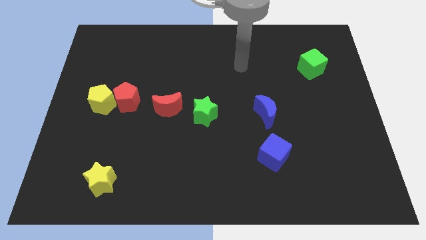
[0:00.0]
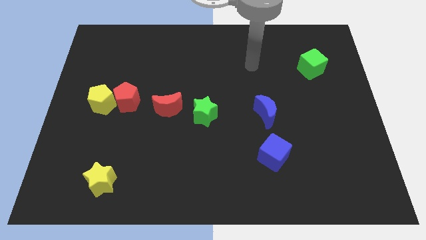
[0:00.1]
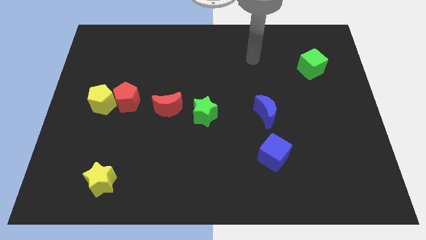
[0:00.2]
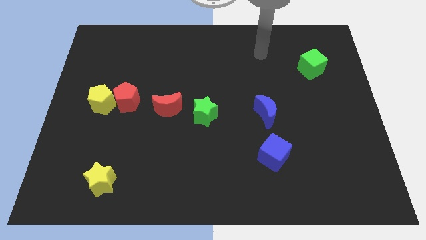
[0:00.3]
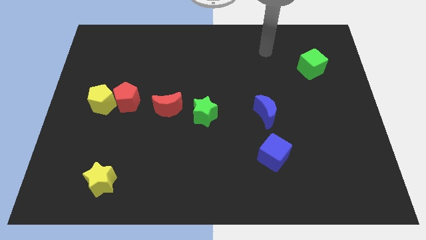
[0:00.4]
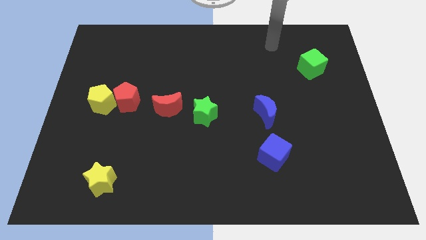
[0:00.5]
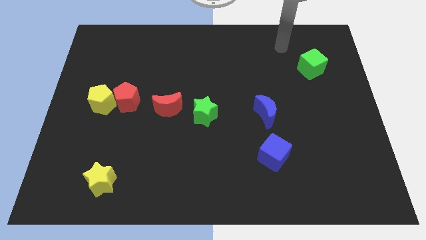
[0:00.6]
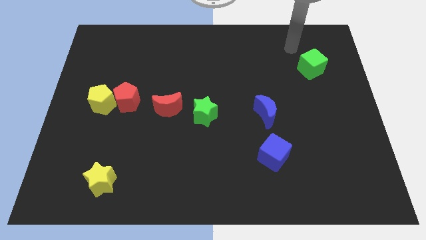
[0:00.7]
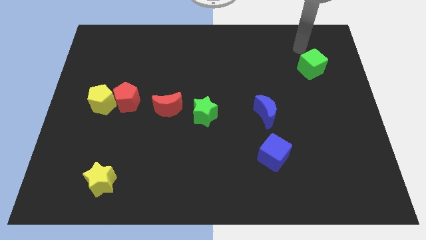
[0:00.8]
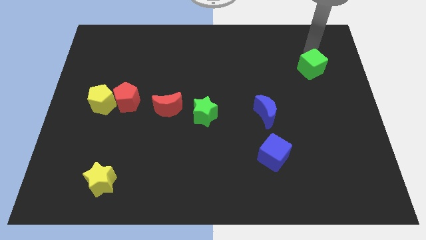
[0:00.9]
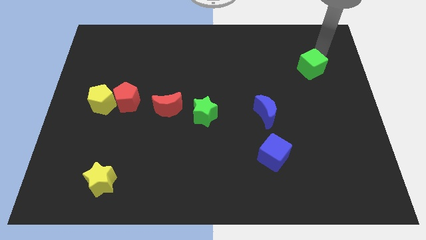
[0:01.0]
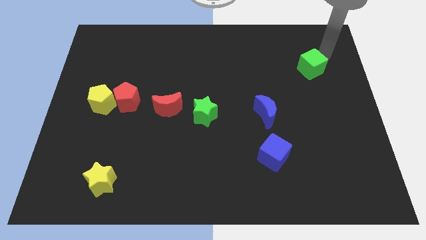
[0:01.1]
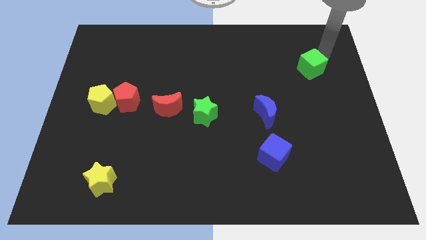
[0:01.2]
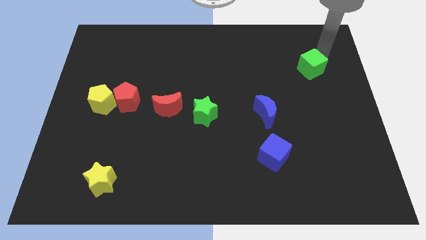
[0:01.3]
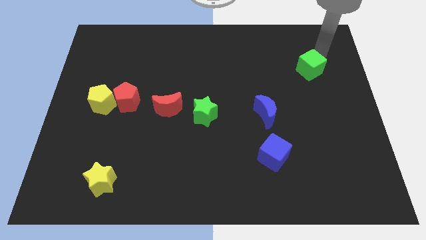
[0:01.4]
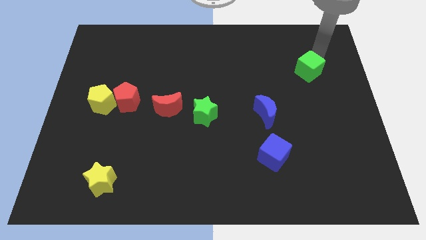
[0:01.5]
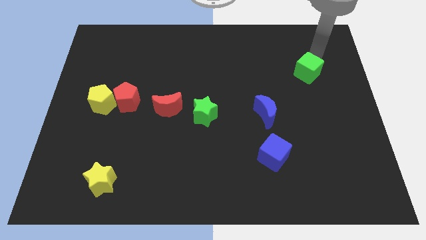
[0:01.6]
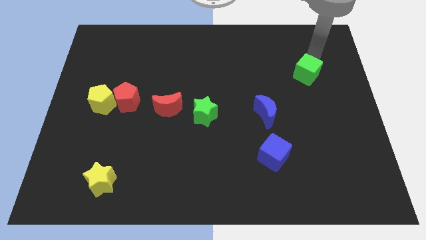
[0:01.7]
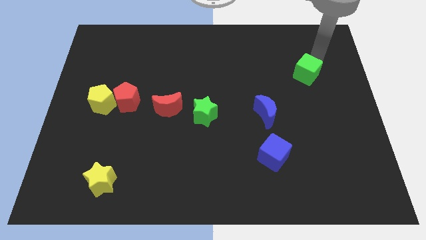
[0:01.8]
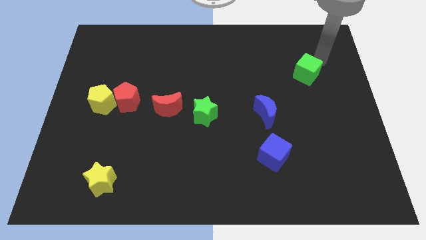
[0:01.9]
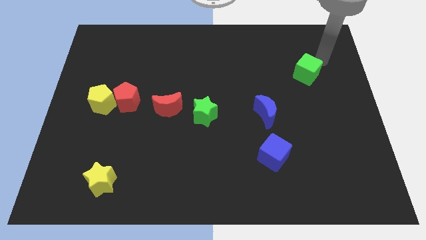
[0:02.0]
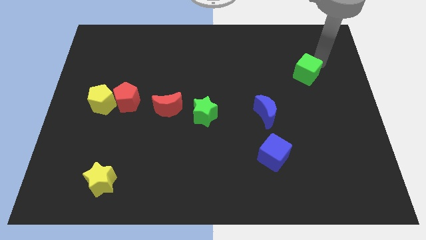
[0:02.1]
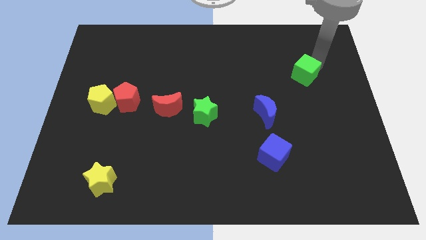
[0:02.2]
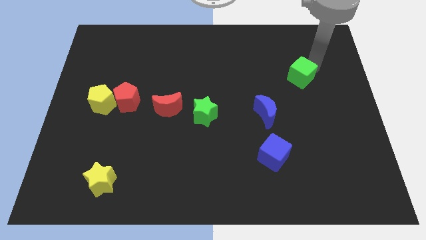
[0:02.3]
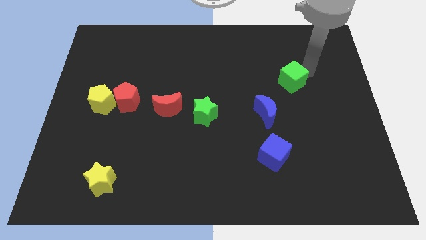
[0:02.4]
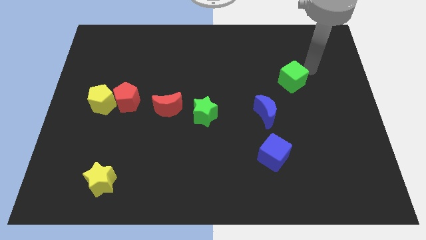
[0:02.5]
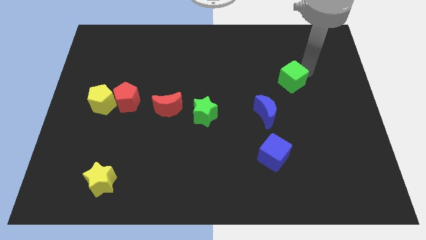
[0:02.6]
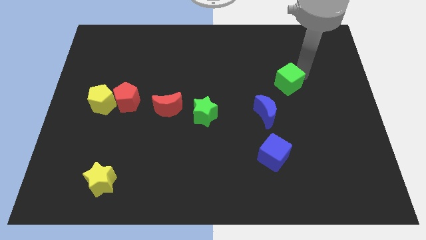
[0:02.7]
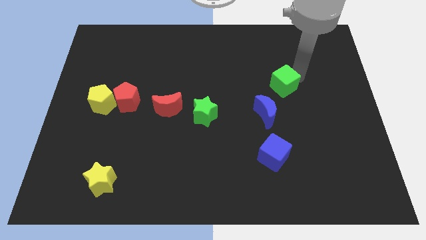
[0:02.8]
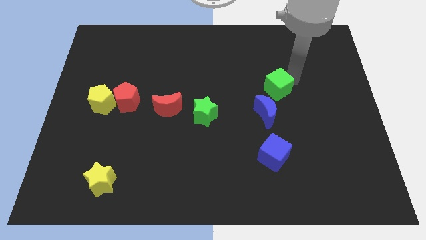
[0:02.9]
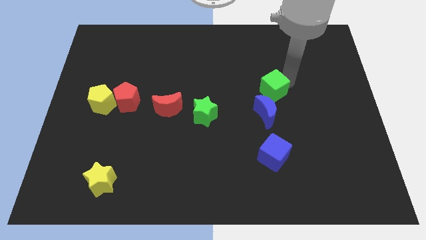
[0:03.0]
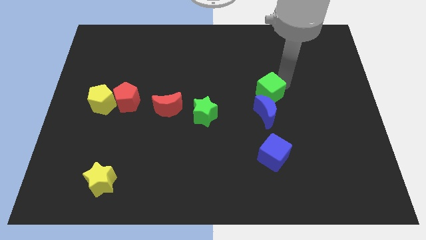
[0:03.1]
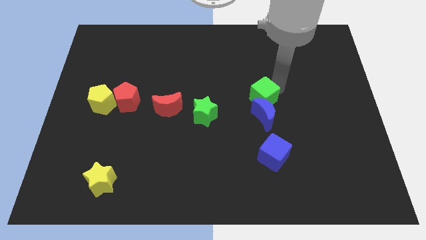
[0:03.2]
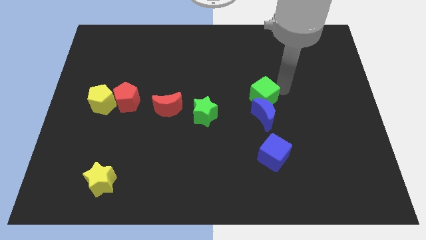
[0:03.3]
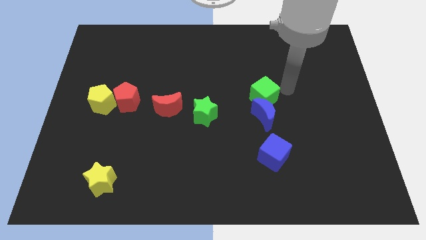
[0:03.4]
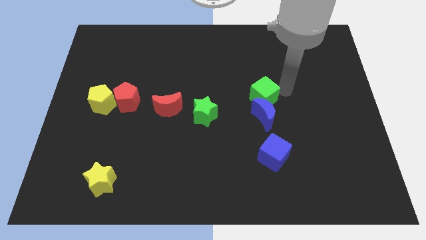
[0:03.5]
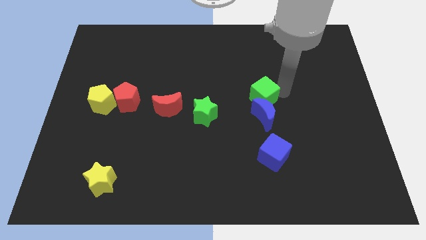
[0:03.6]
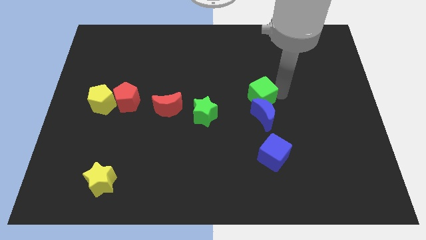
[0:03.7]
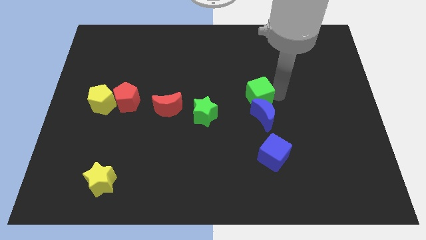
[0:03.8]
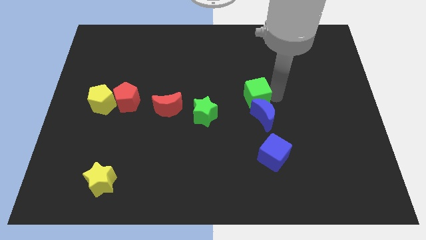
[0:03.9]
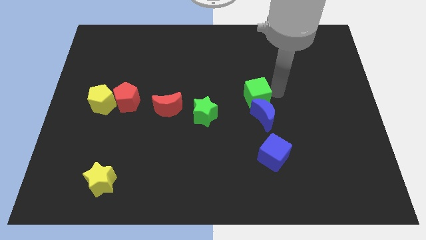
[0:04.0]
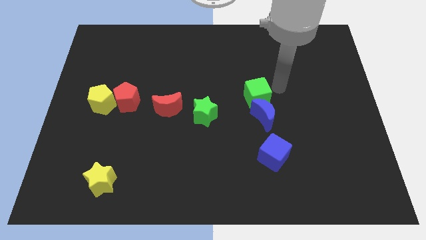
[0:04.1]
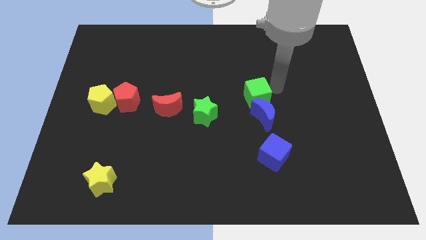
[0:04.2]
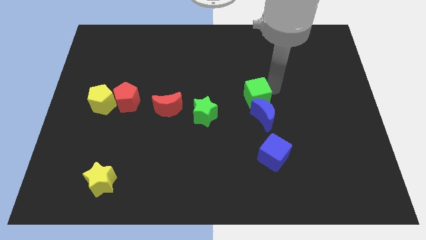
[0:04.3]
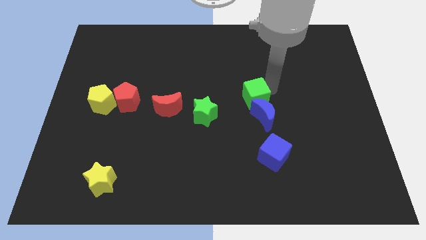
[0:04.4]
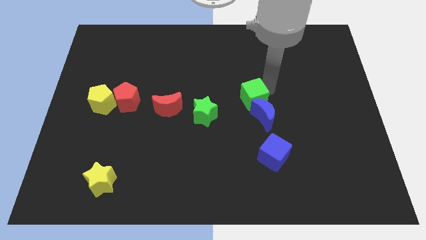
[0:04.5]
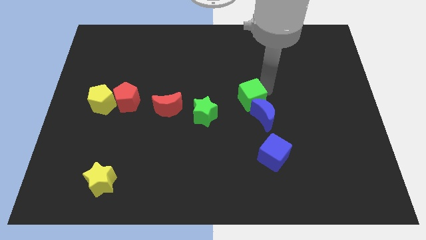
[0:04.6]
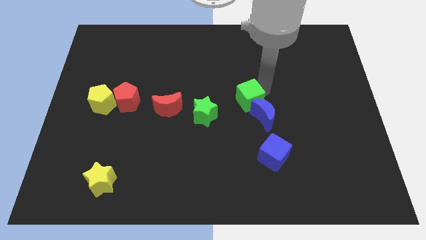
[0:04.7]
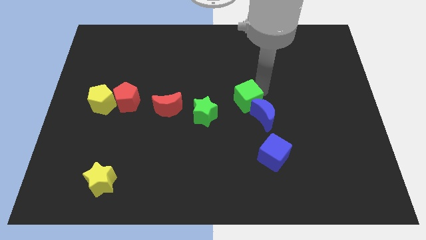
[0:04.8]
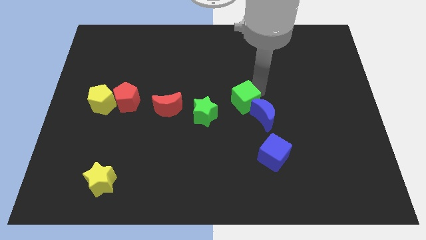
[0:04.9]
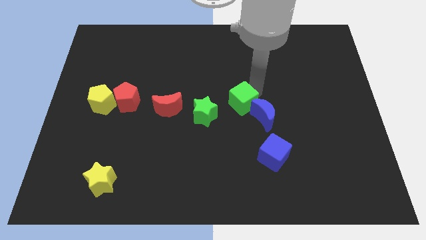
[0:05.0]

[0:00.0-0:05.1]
move the green cube down and to the left diagonally

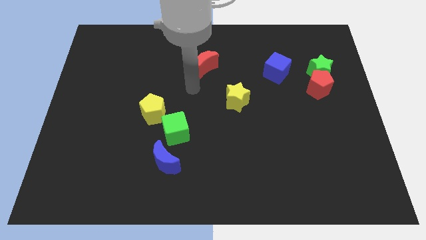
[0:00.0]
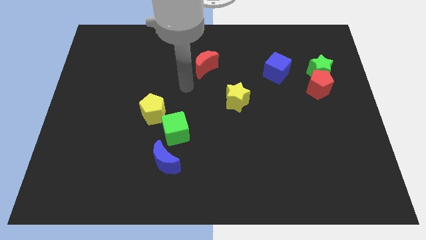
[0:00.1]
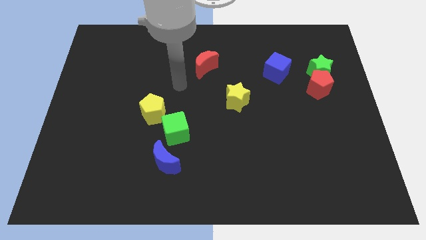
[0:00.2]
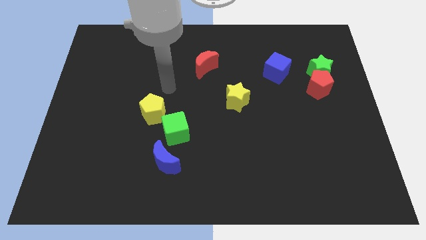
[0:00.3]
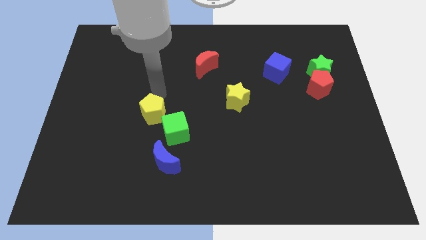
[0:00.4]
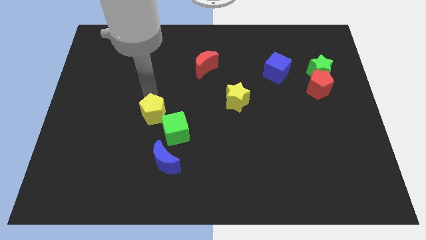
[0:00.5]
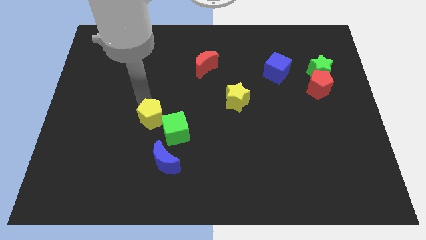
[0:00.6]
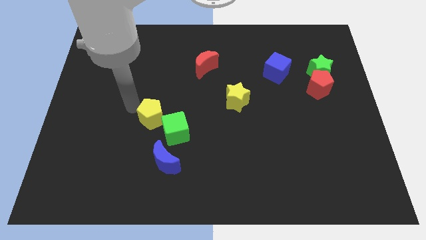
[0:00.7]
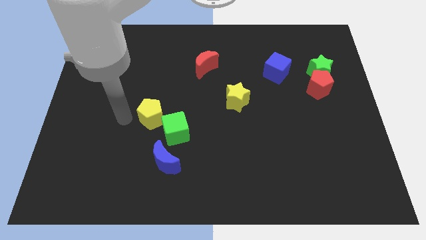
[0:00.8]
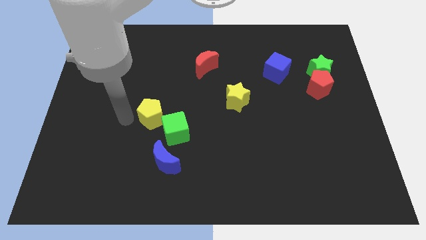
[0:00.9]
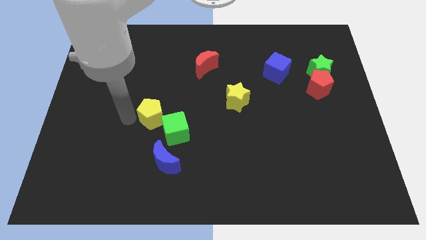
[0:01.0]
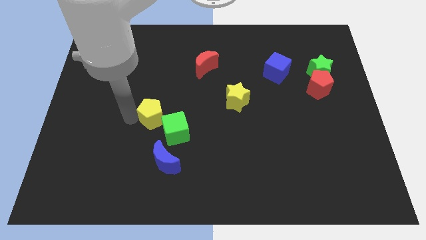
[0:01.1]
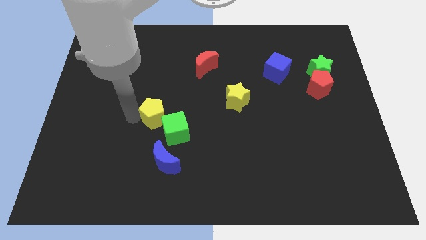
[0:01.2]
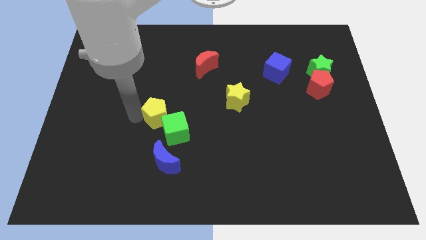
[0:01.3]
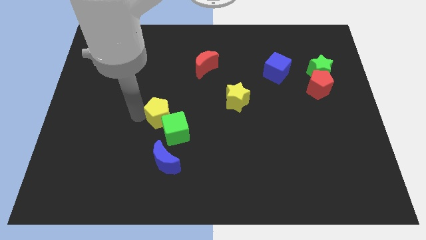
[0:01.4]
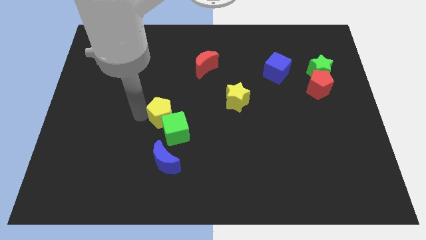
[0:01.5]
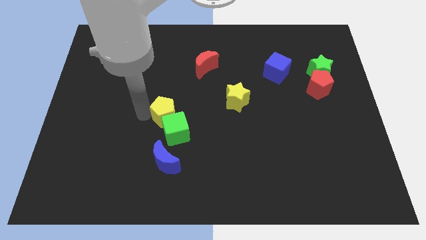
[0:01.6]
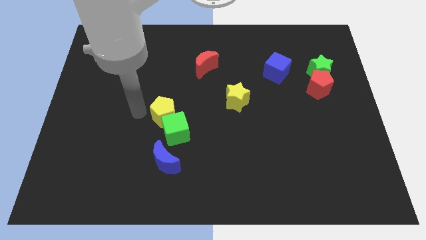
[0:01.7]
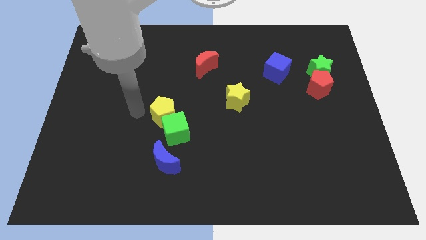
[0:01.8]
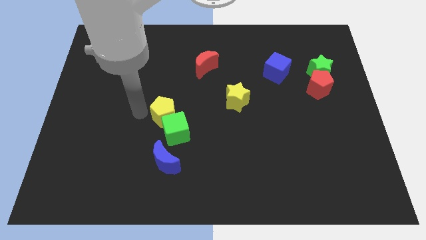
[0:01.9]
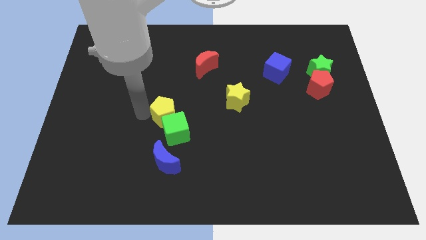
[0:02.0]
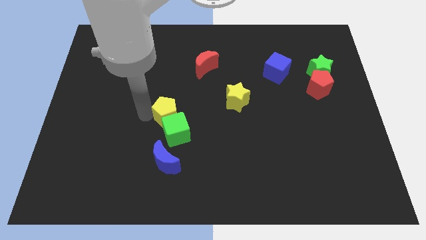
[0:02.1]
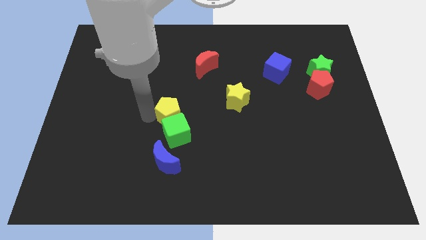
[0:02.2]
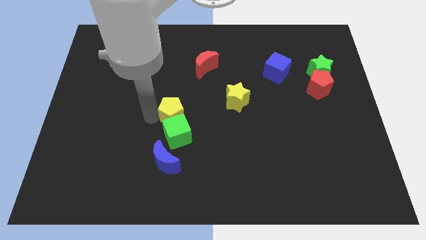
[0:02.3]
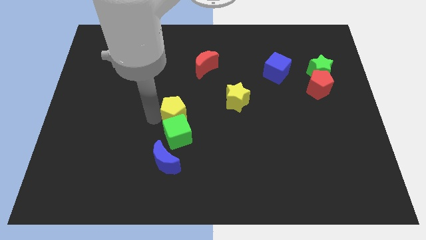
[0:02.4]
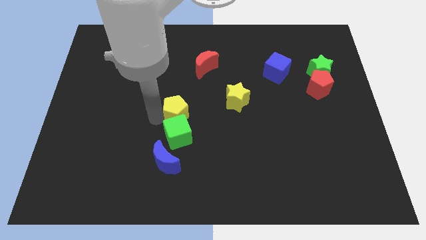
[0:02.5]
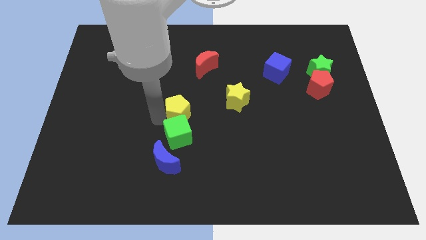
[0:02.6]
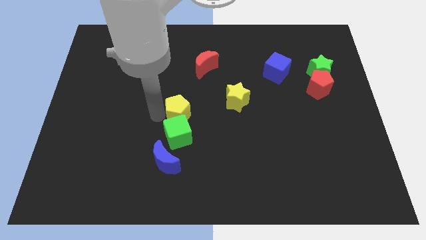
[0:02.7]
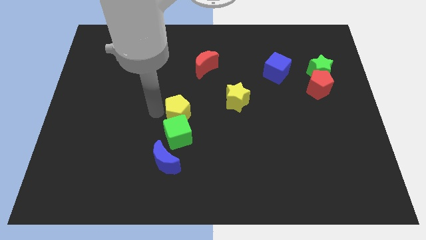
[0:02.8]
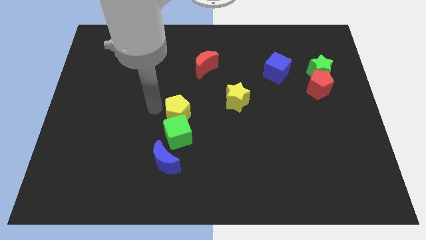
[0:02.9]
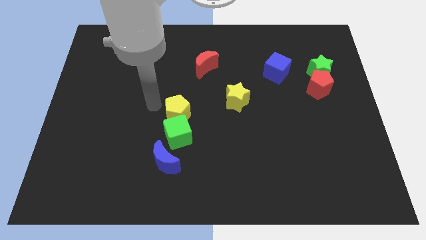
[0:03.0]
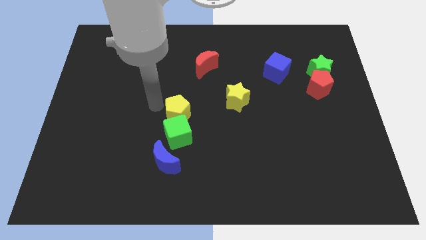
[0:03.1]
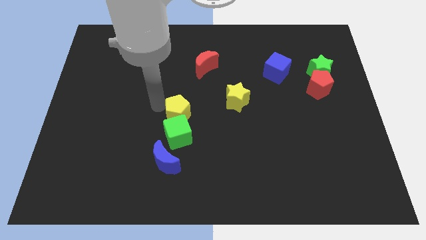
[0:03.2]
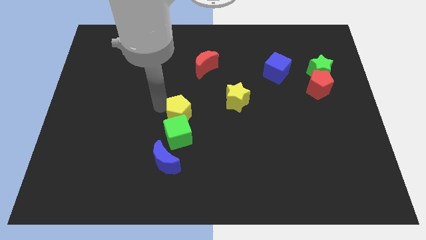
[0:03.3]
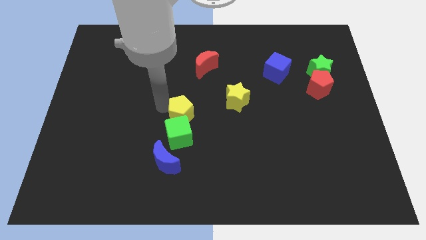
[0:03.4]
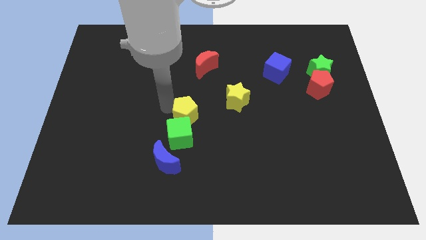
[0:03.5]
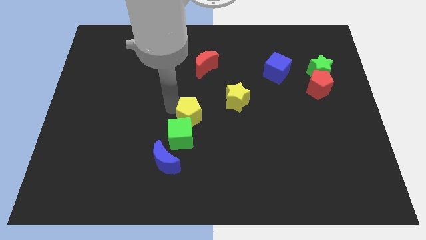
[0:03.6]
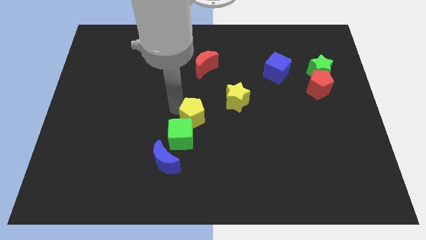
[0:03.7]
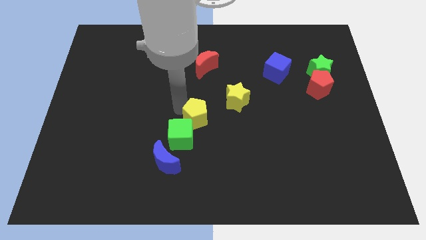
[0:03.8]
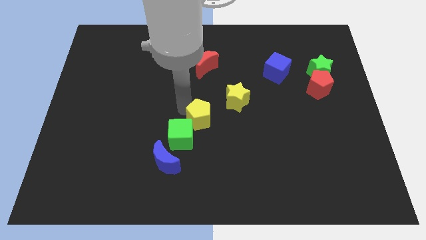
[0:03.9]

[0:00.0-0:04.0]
slide the yellow pentagon down and right diagonally slightly
